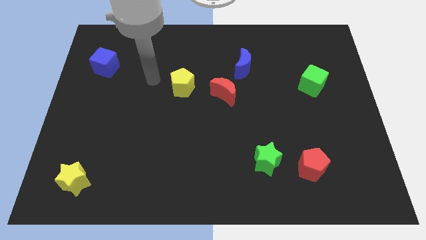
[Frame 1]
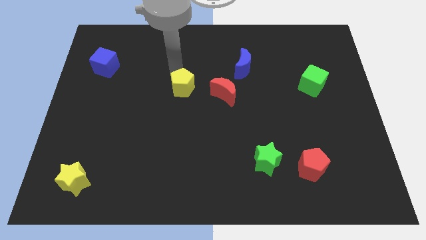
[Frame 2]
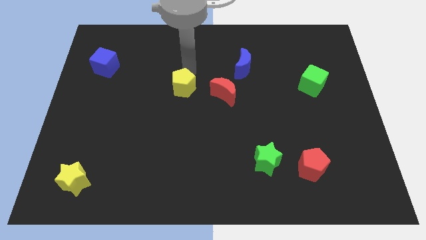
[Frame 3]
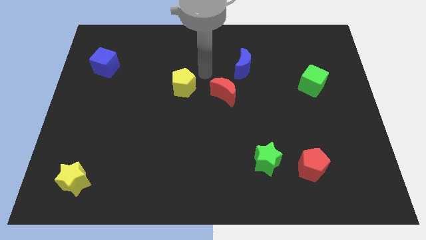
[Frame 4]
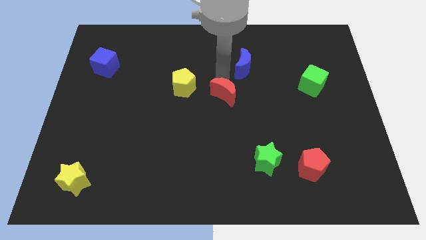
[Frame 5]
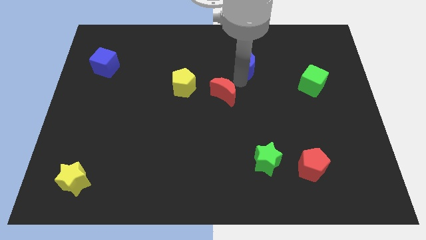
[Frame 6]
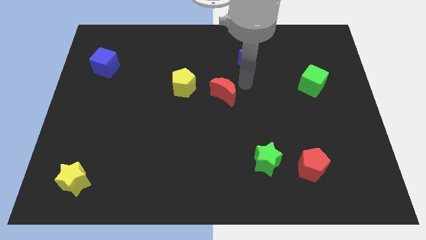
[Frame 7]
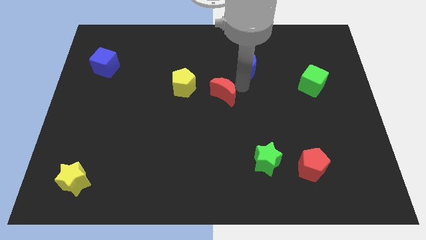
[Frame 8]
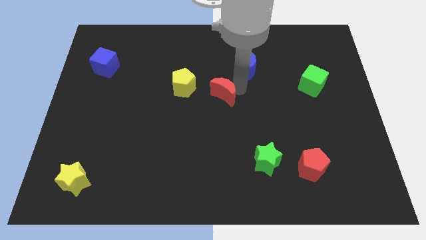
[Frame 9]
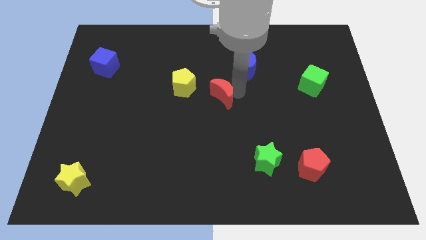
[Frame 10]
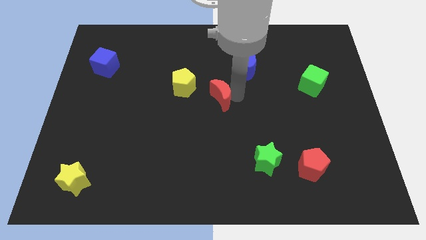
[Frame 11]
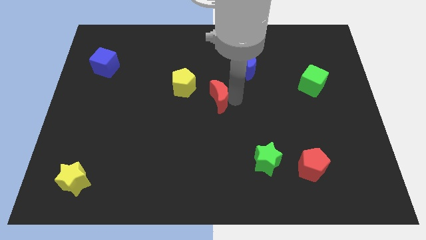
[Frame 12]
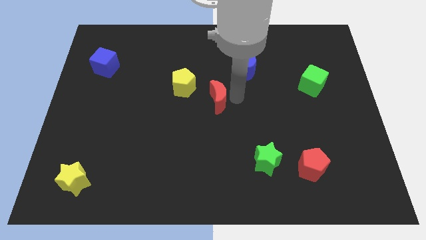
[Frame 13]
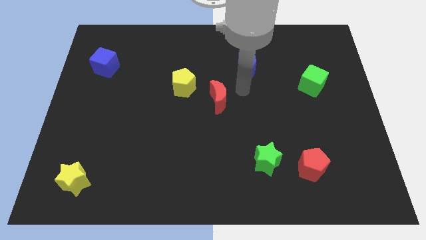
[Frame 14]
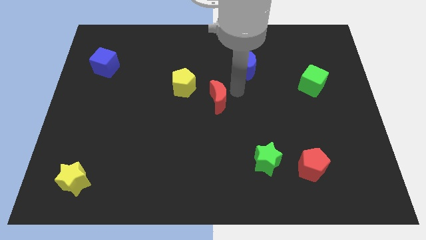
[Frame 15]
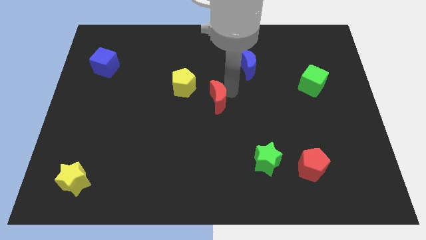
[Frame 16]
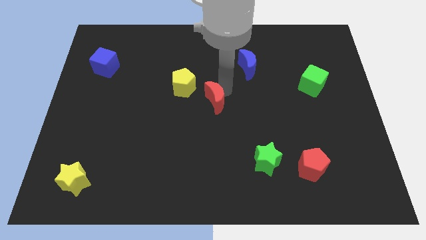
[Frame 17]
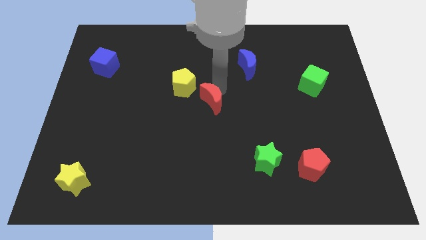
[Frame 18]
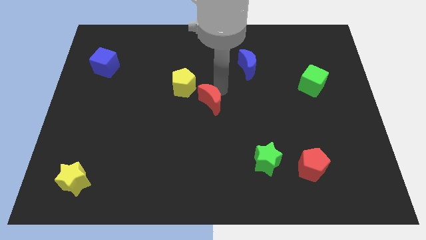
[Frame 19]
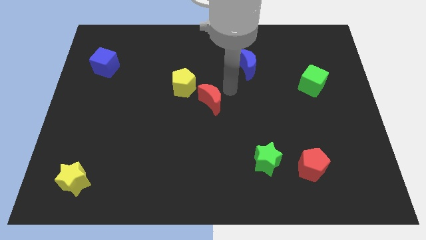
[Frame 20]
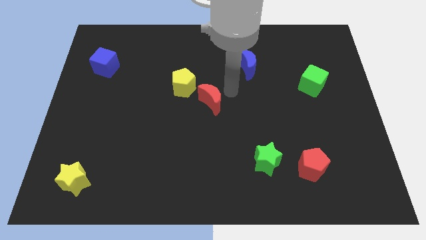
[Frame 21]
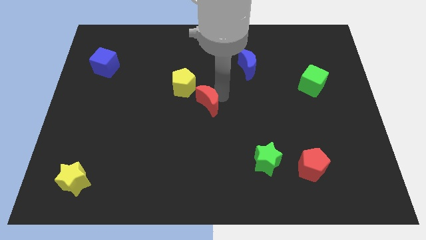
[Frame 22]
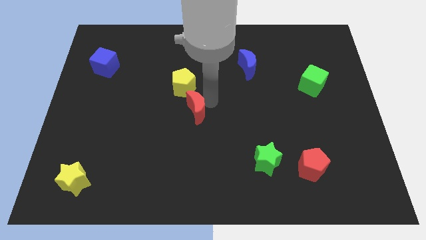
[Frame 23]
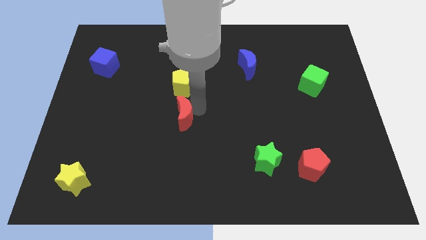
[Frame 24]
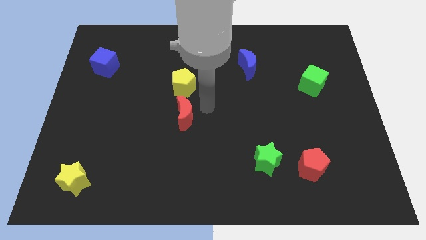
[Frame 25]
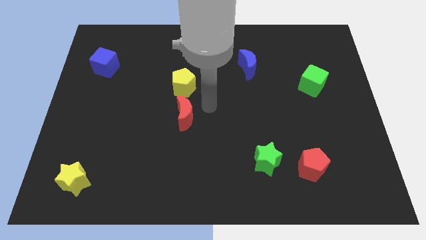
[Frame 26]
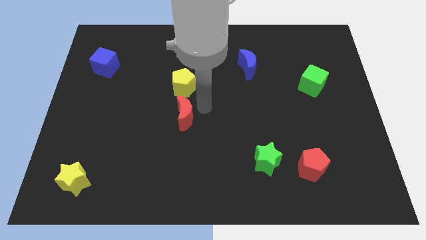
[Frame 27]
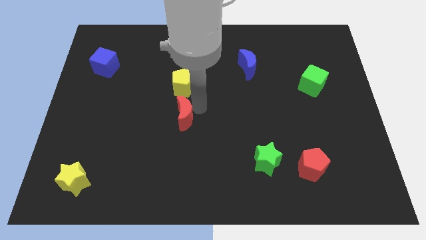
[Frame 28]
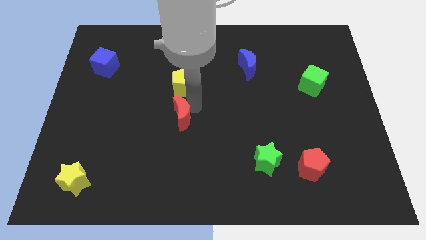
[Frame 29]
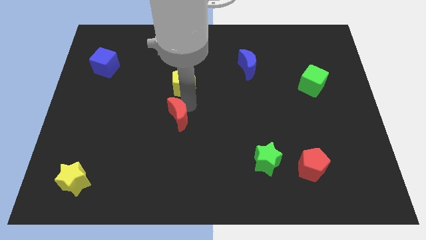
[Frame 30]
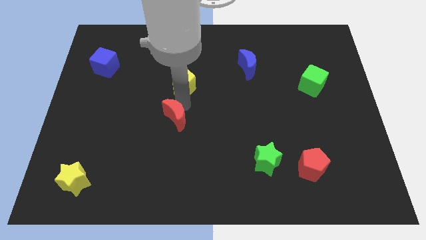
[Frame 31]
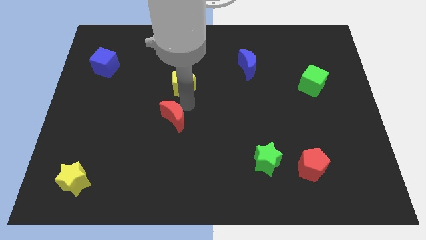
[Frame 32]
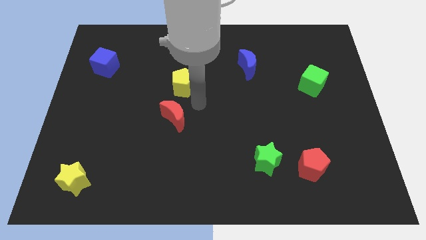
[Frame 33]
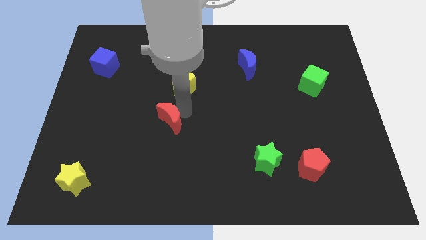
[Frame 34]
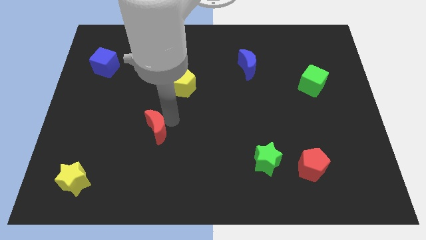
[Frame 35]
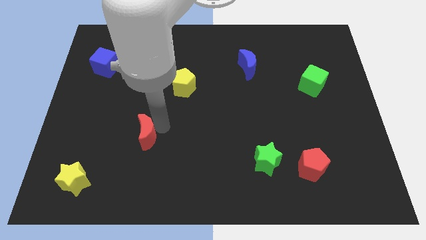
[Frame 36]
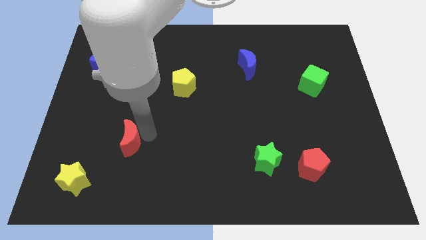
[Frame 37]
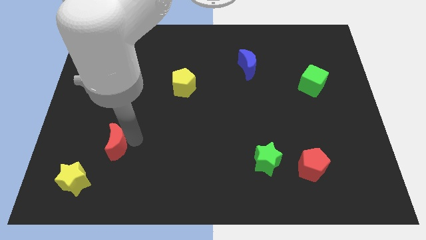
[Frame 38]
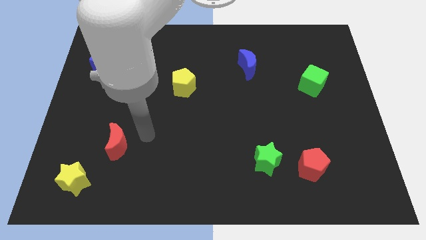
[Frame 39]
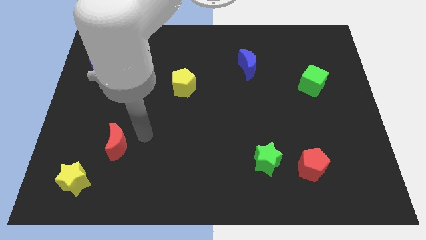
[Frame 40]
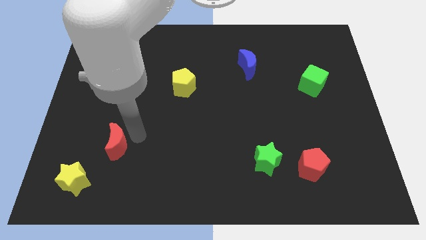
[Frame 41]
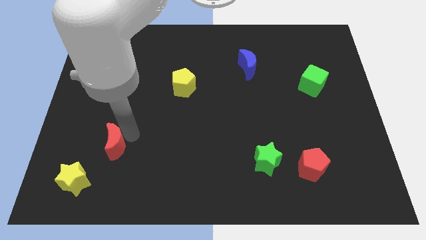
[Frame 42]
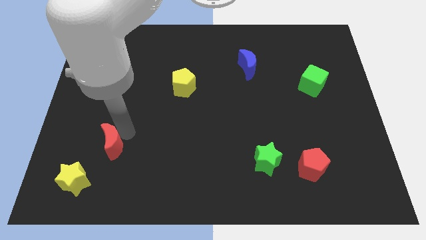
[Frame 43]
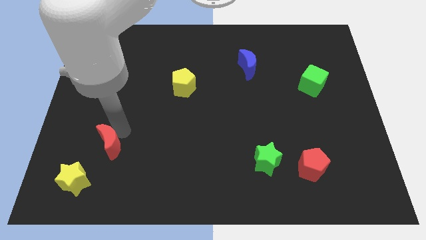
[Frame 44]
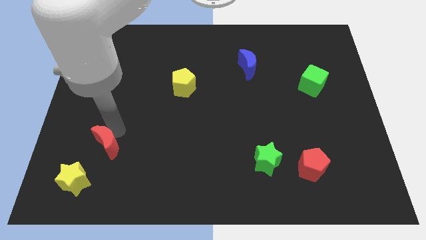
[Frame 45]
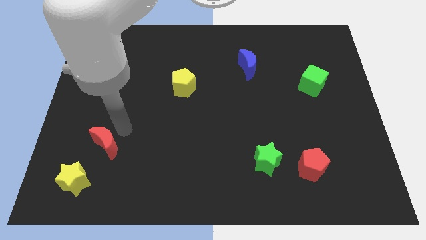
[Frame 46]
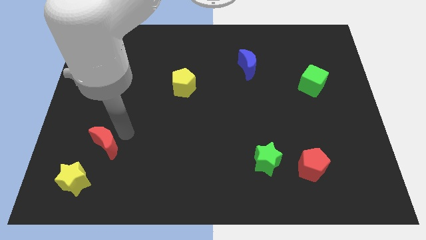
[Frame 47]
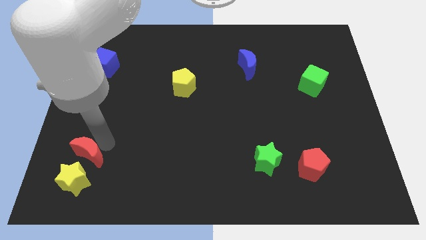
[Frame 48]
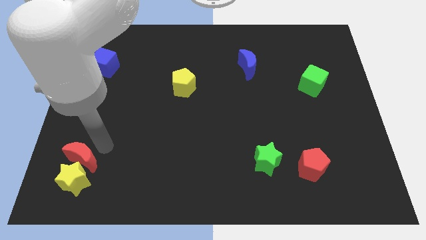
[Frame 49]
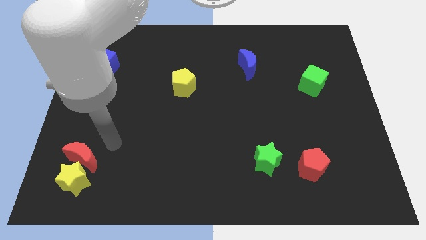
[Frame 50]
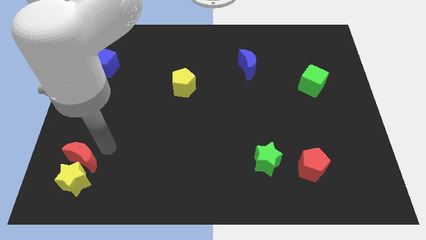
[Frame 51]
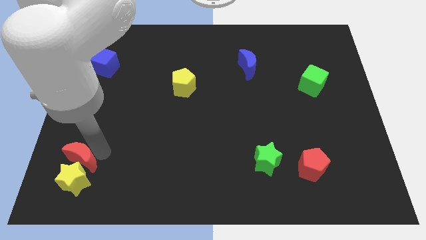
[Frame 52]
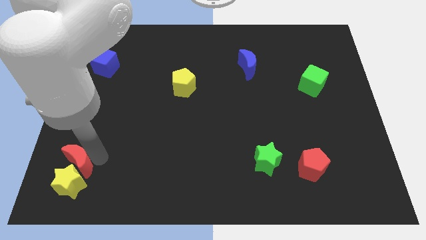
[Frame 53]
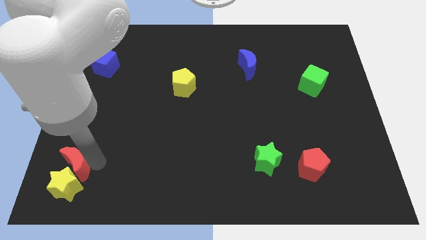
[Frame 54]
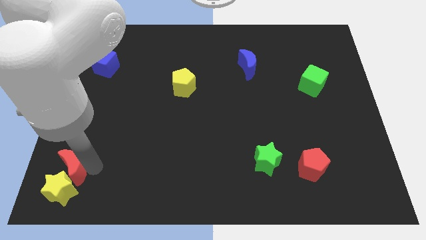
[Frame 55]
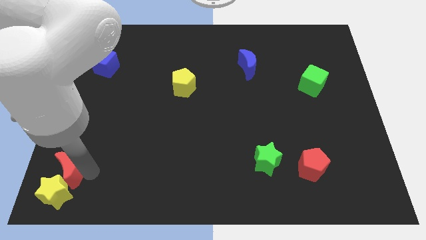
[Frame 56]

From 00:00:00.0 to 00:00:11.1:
put the red moon to the bottom left

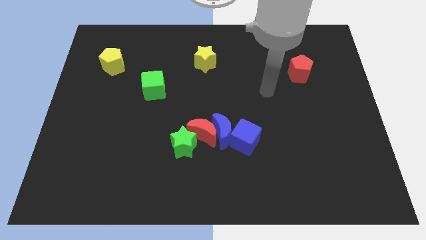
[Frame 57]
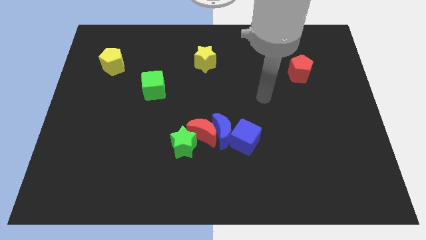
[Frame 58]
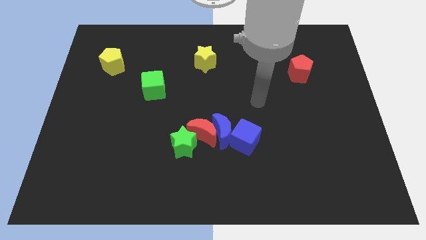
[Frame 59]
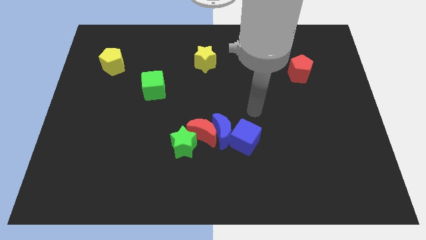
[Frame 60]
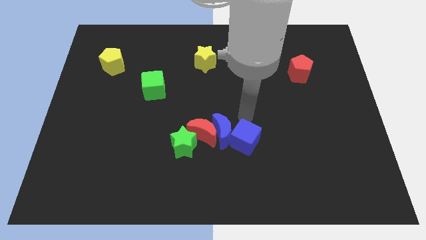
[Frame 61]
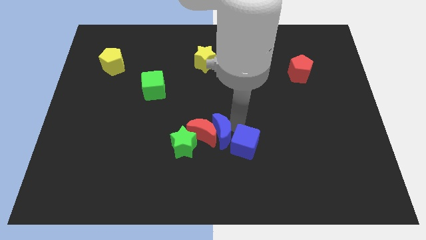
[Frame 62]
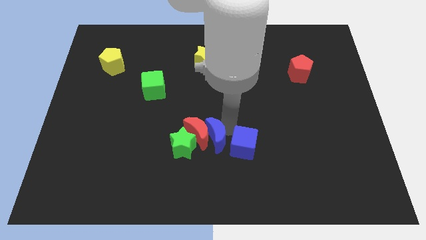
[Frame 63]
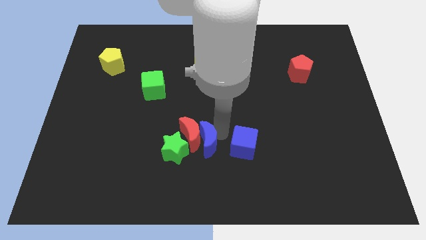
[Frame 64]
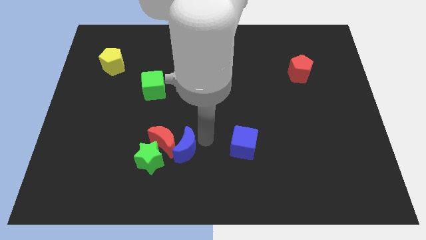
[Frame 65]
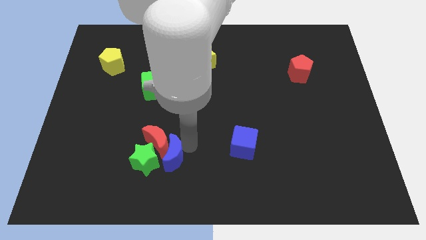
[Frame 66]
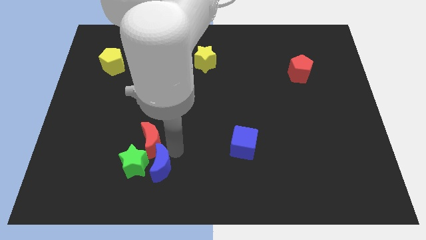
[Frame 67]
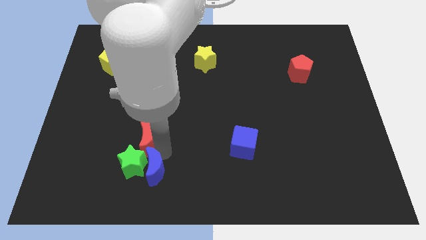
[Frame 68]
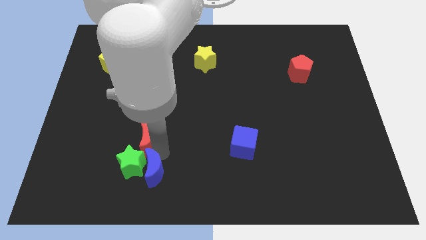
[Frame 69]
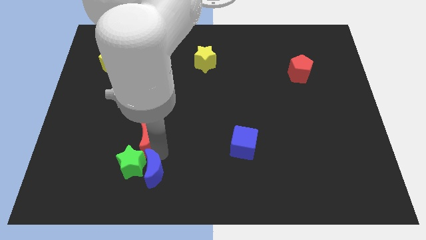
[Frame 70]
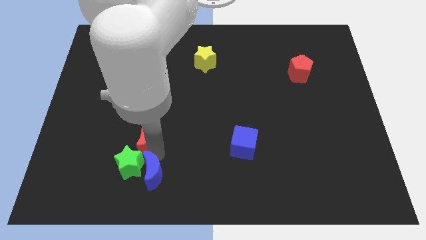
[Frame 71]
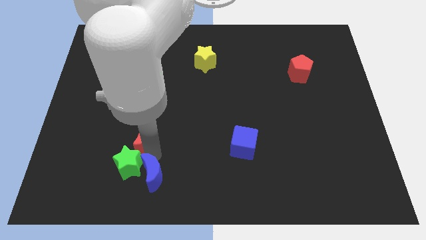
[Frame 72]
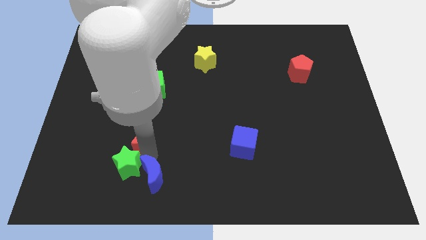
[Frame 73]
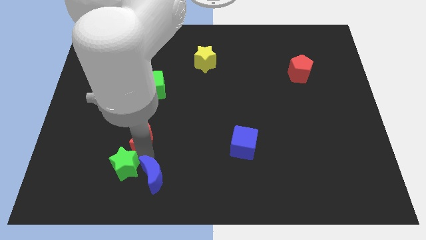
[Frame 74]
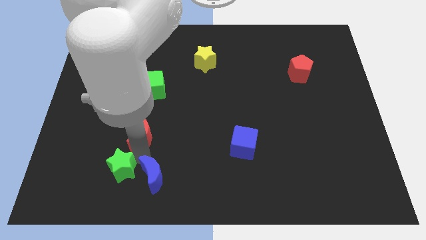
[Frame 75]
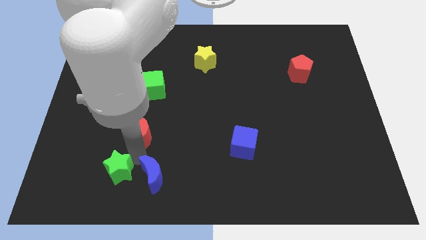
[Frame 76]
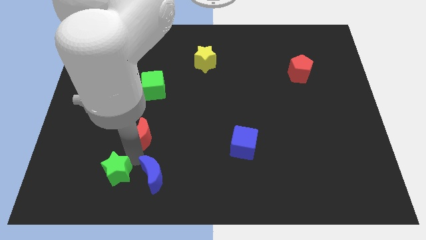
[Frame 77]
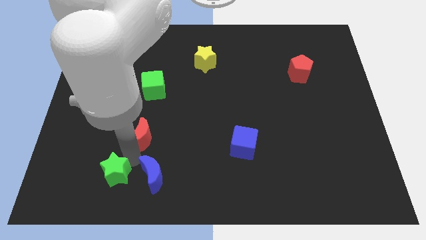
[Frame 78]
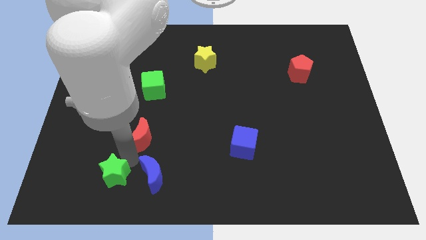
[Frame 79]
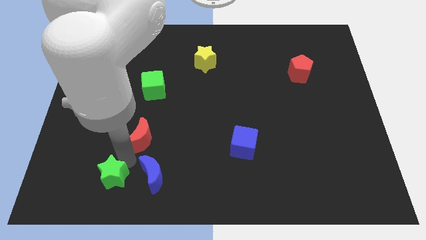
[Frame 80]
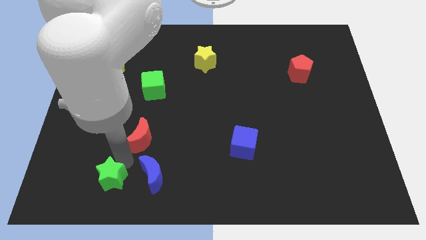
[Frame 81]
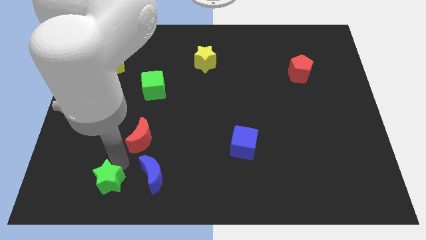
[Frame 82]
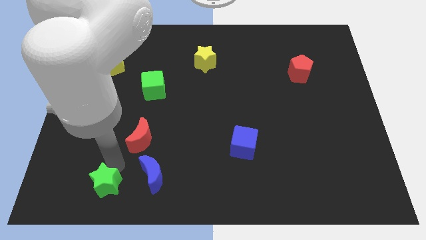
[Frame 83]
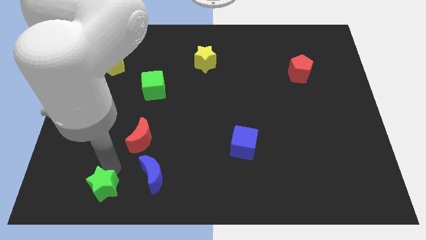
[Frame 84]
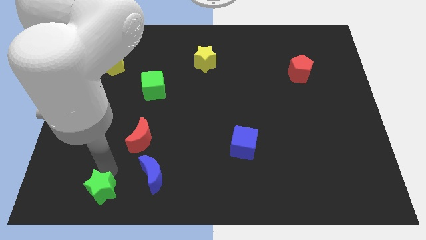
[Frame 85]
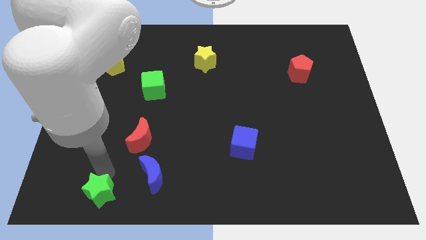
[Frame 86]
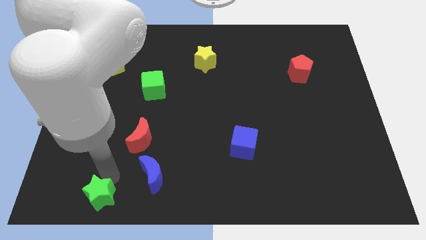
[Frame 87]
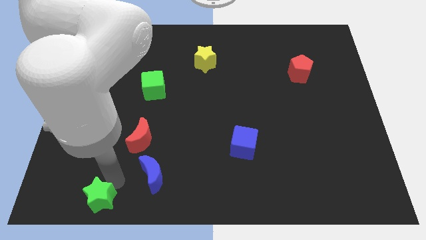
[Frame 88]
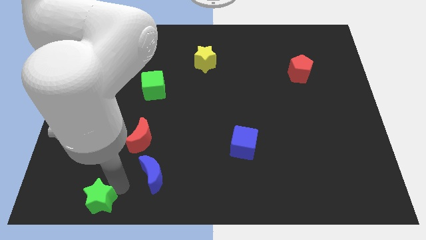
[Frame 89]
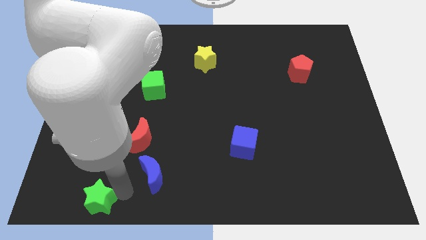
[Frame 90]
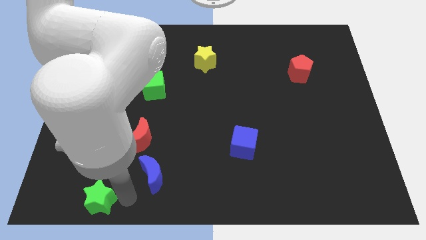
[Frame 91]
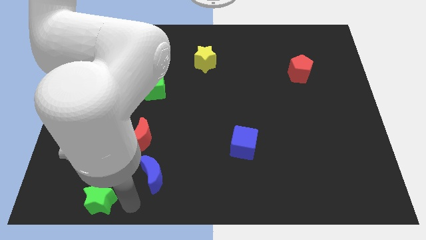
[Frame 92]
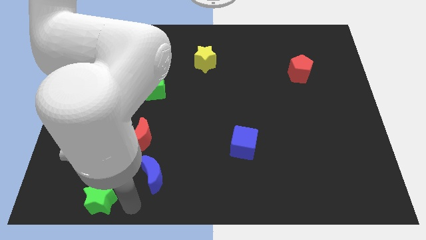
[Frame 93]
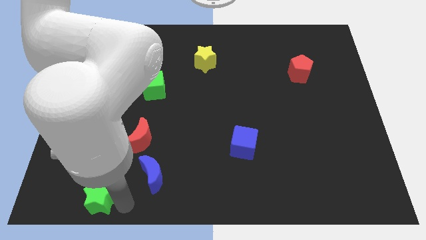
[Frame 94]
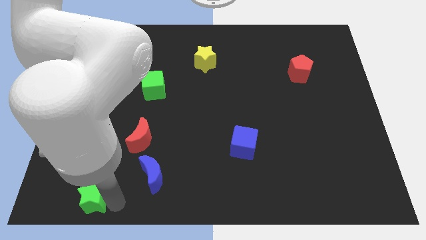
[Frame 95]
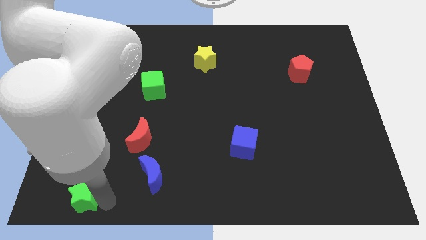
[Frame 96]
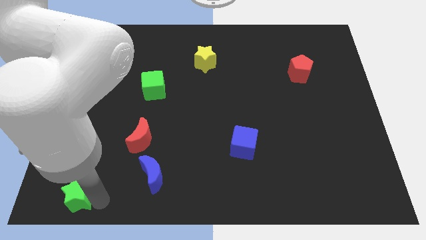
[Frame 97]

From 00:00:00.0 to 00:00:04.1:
slide the green star to the lower left corner
